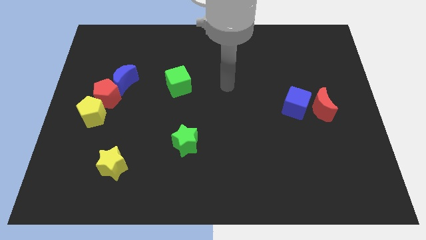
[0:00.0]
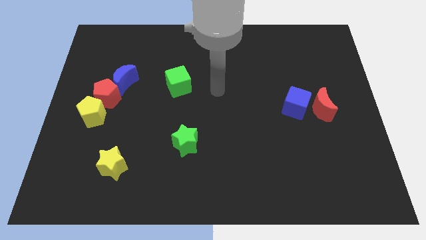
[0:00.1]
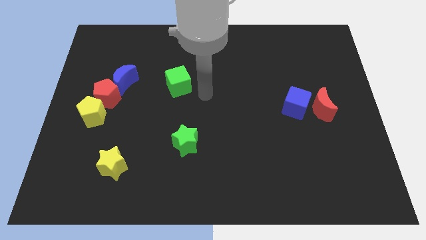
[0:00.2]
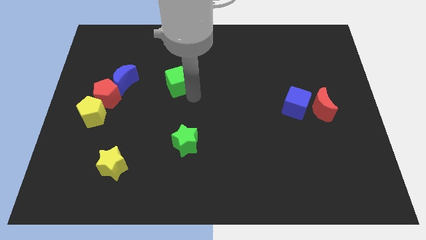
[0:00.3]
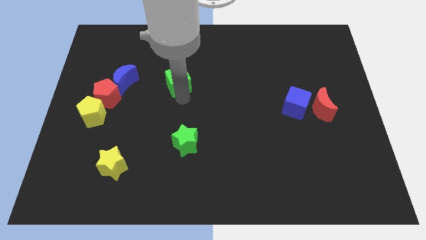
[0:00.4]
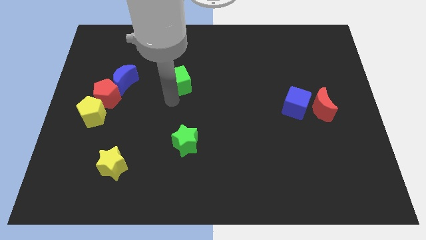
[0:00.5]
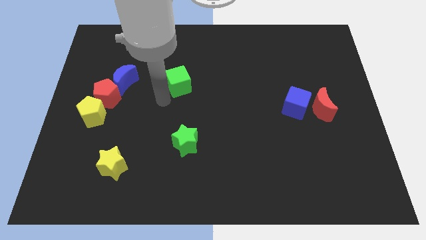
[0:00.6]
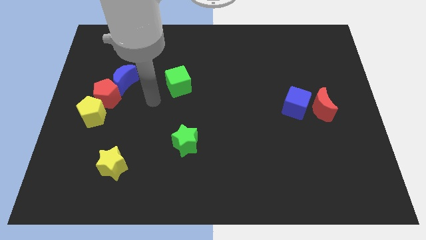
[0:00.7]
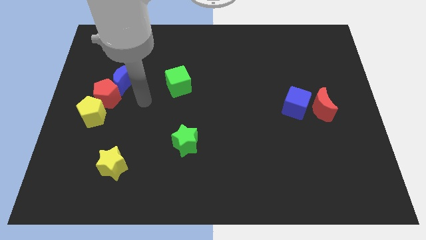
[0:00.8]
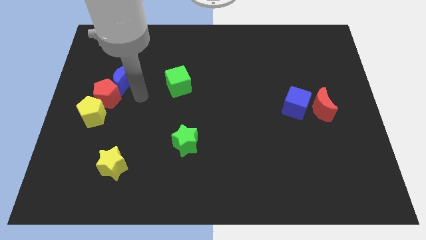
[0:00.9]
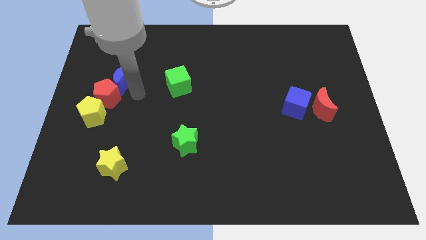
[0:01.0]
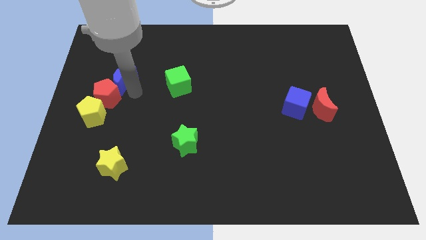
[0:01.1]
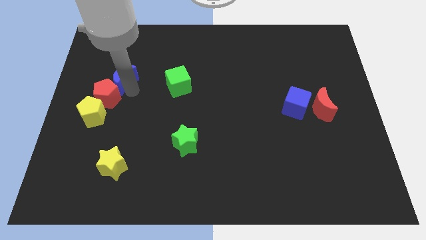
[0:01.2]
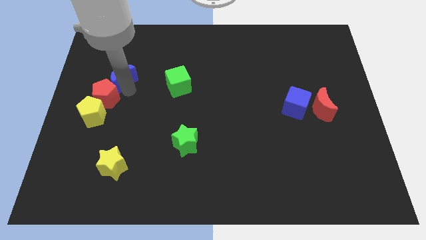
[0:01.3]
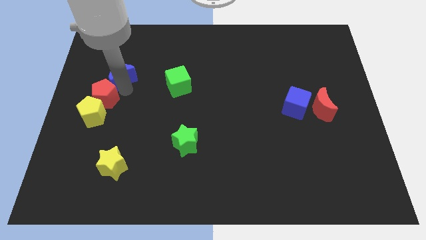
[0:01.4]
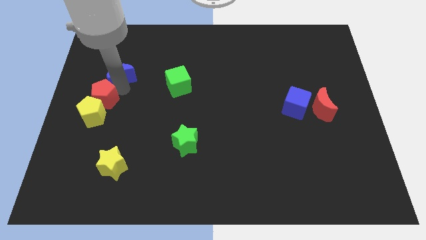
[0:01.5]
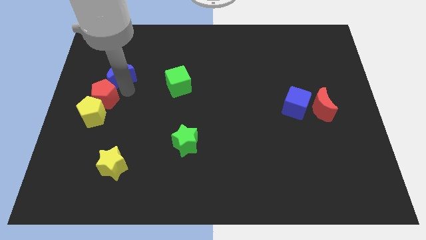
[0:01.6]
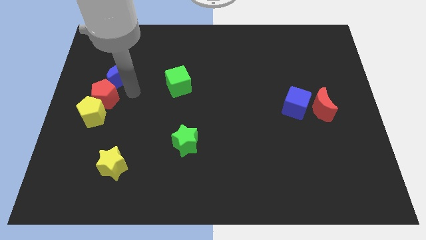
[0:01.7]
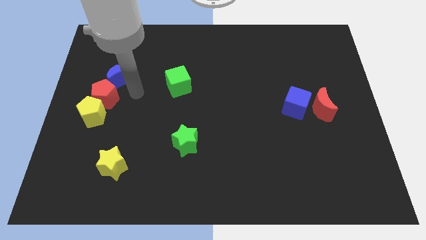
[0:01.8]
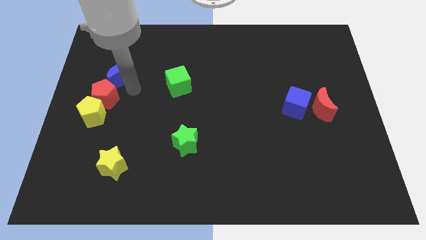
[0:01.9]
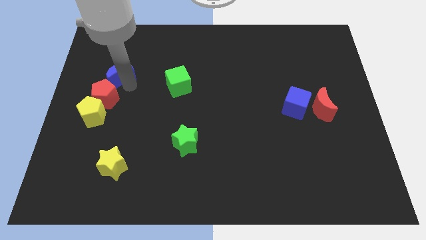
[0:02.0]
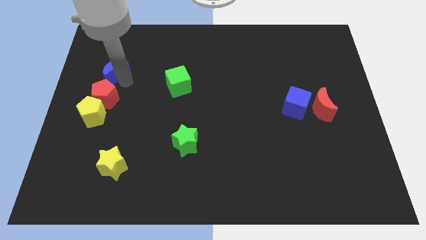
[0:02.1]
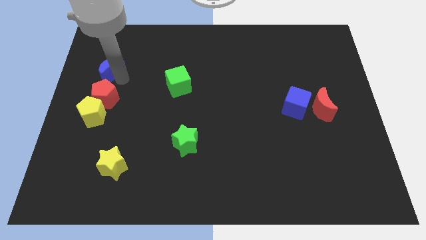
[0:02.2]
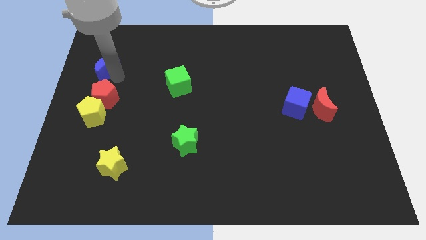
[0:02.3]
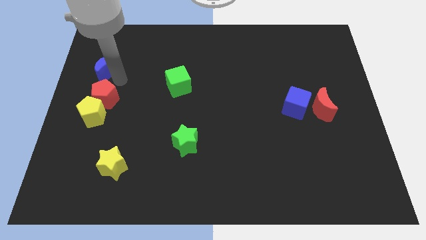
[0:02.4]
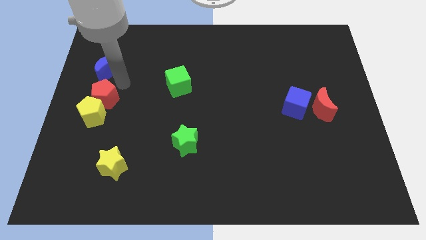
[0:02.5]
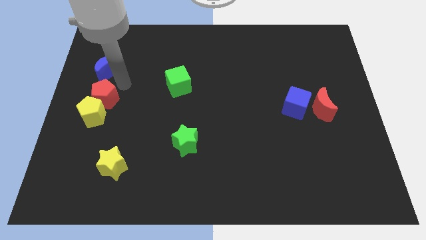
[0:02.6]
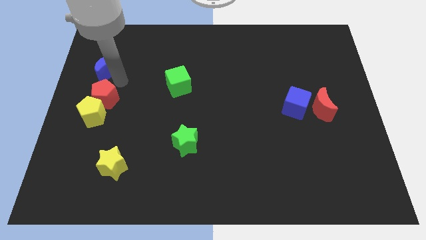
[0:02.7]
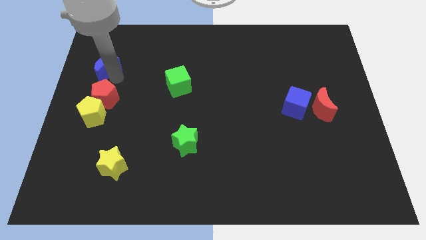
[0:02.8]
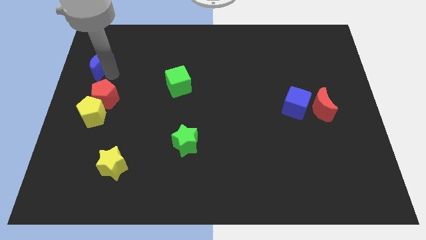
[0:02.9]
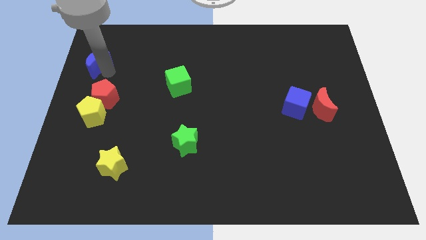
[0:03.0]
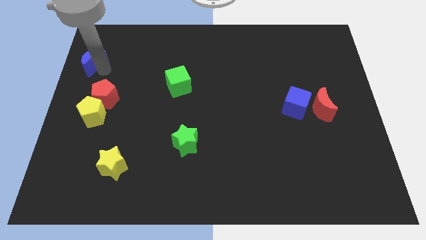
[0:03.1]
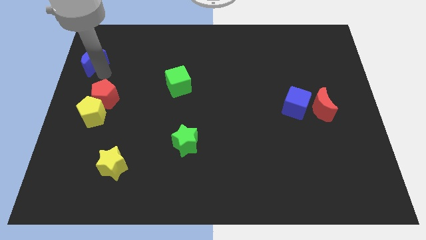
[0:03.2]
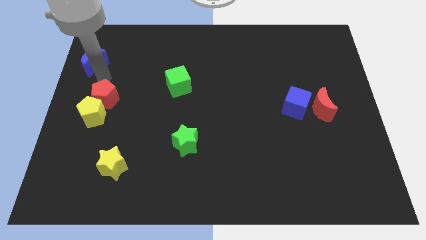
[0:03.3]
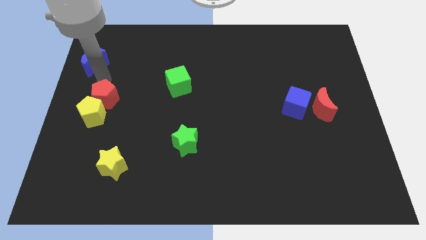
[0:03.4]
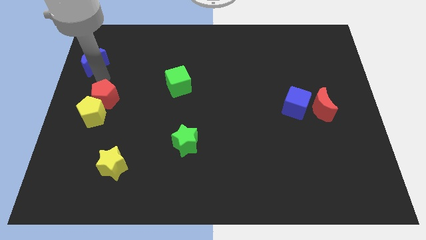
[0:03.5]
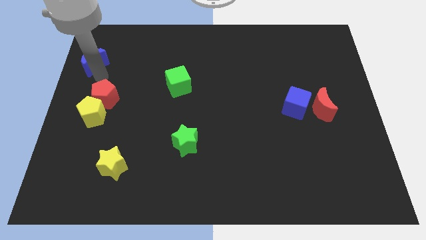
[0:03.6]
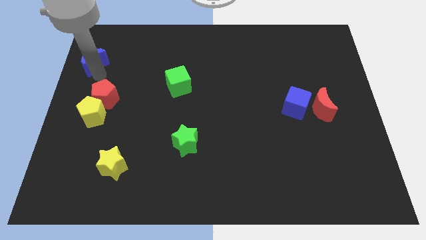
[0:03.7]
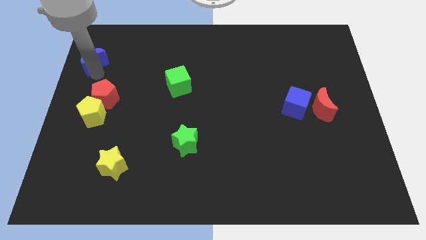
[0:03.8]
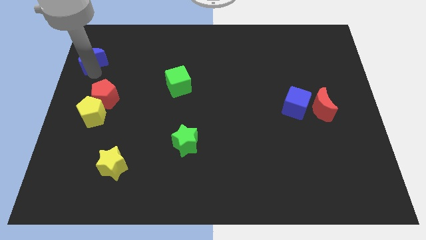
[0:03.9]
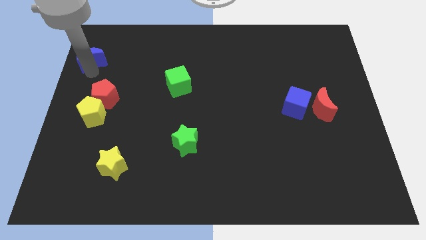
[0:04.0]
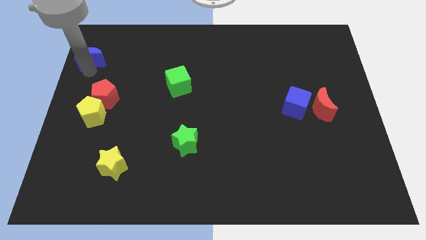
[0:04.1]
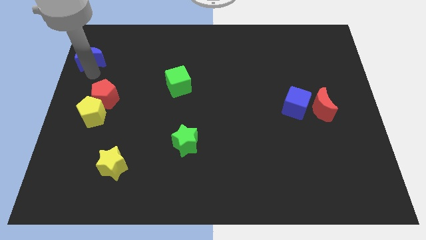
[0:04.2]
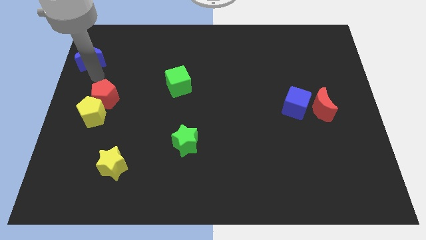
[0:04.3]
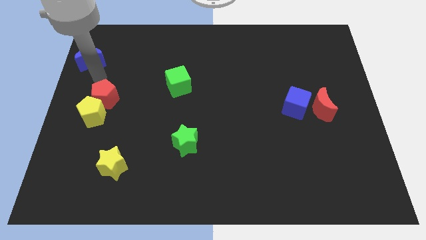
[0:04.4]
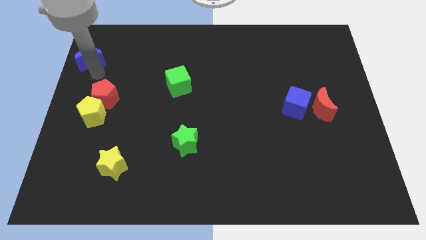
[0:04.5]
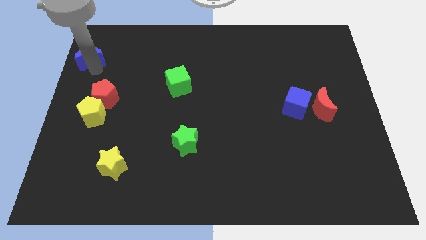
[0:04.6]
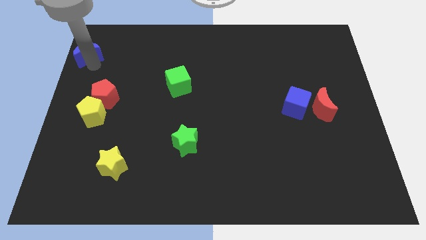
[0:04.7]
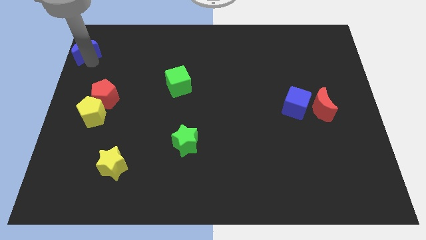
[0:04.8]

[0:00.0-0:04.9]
push the blue moon to the top left

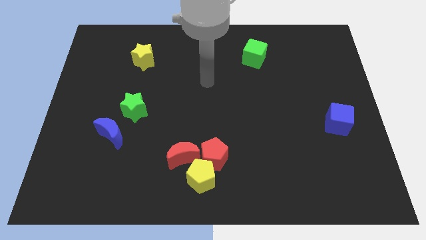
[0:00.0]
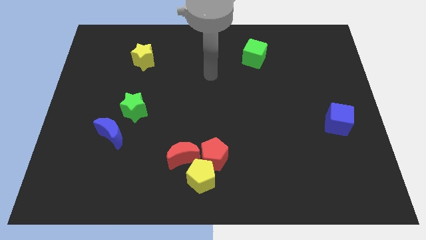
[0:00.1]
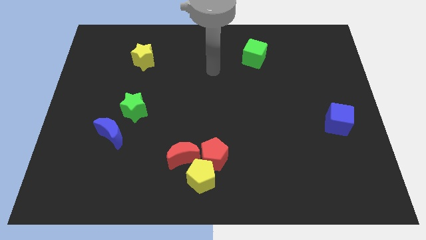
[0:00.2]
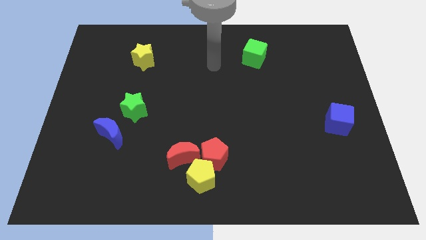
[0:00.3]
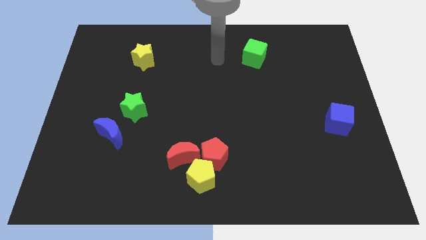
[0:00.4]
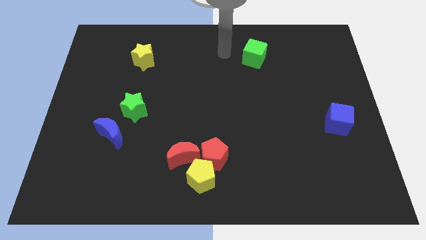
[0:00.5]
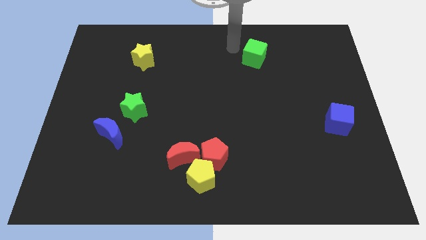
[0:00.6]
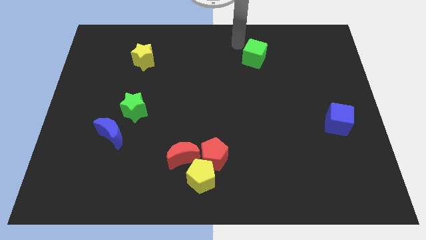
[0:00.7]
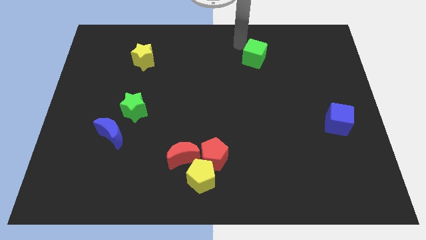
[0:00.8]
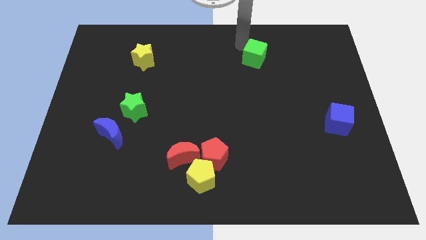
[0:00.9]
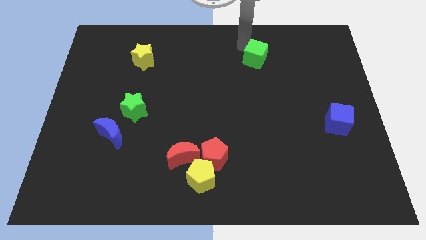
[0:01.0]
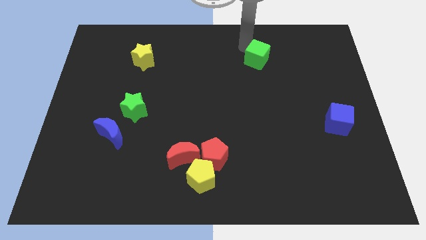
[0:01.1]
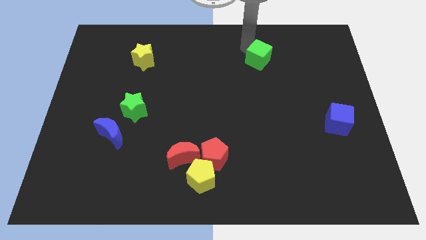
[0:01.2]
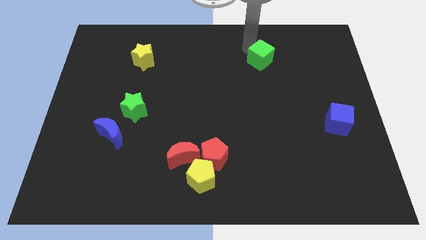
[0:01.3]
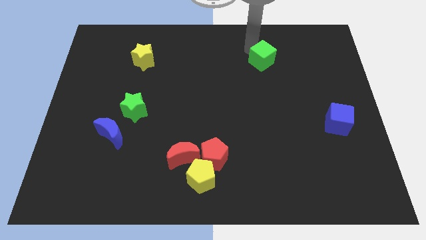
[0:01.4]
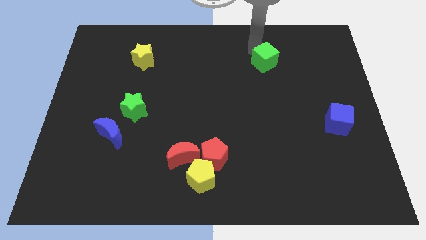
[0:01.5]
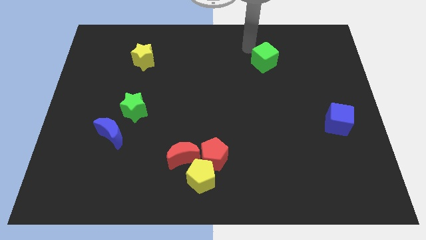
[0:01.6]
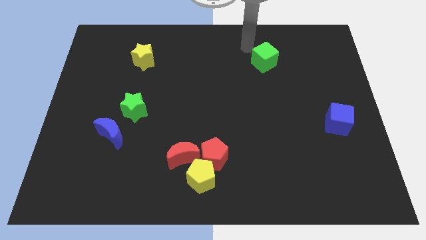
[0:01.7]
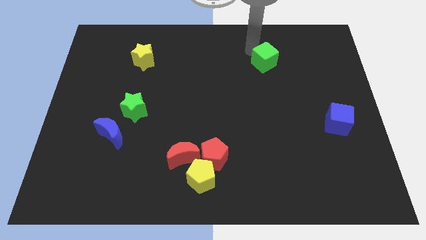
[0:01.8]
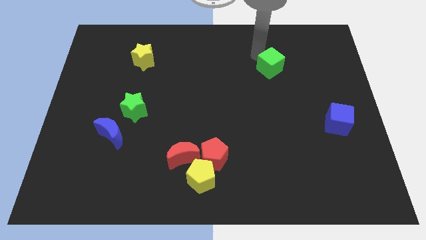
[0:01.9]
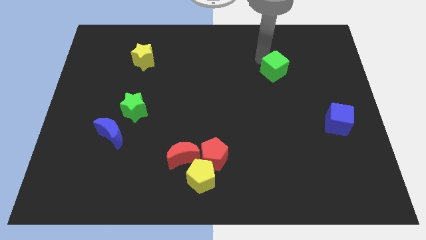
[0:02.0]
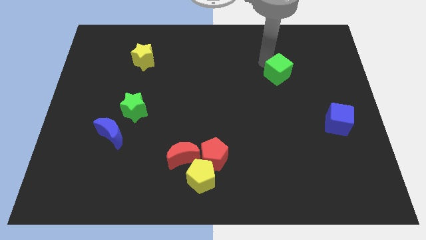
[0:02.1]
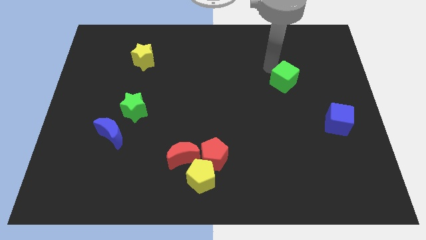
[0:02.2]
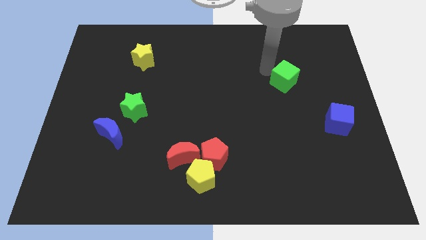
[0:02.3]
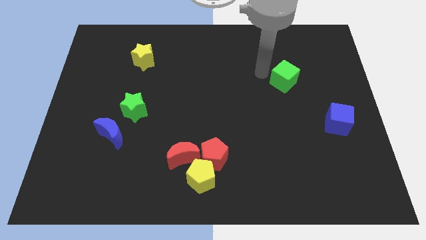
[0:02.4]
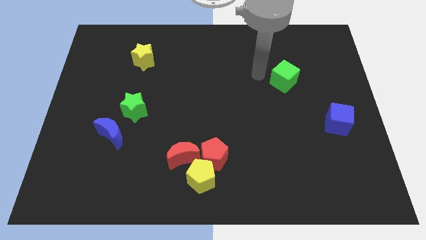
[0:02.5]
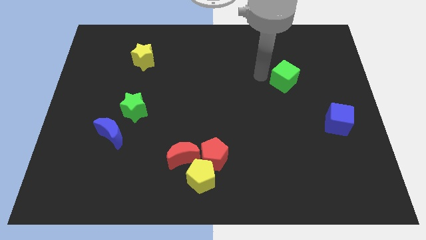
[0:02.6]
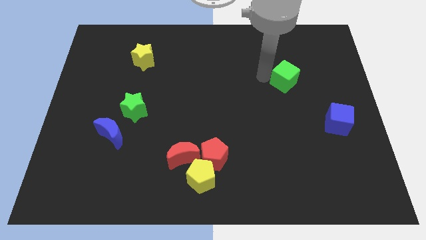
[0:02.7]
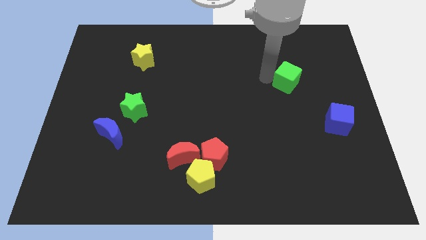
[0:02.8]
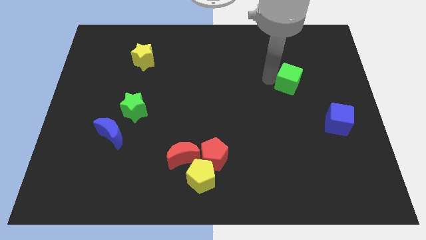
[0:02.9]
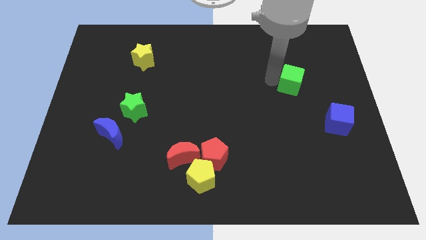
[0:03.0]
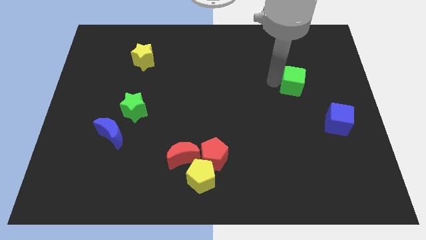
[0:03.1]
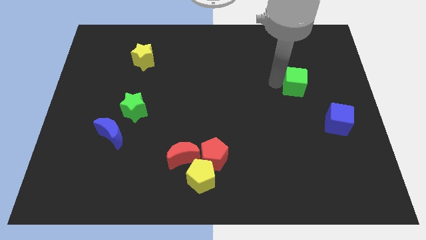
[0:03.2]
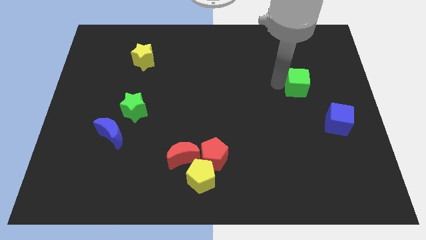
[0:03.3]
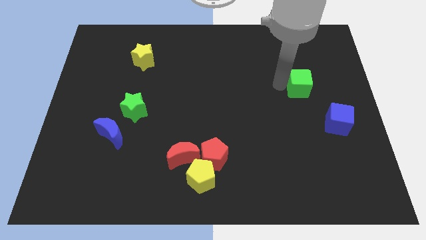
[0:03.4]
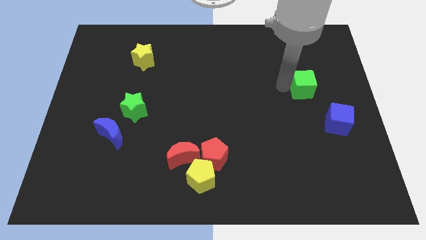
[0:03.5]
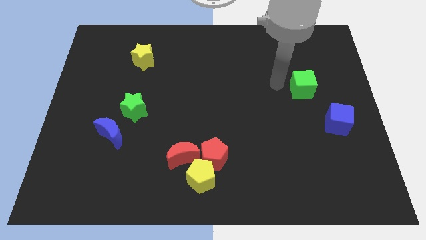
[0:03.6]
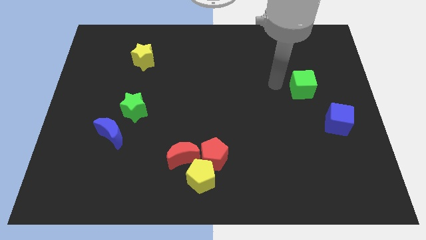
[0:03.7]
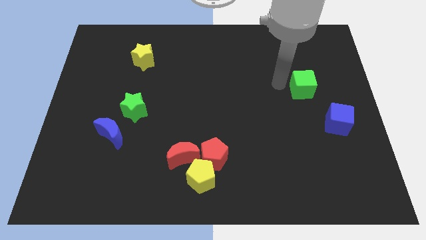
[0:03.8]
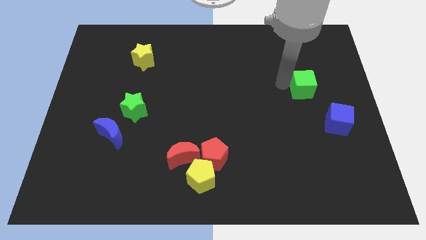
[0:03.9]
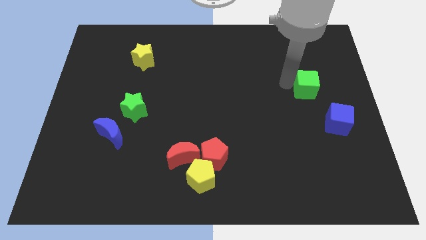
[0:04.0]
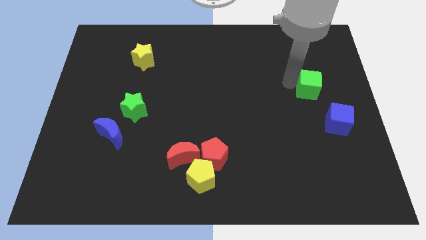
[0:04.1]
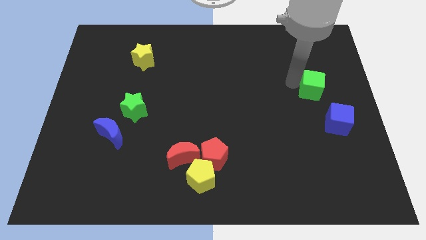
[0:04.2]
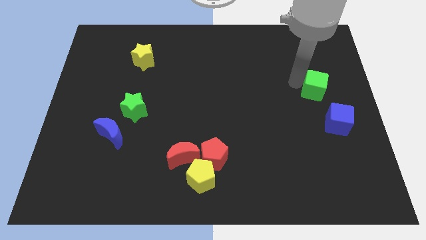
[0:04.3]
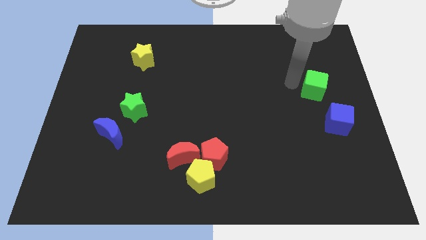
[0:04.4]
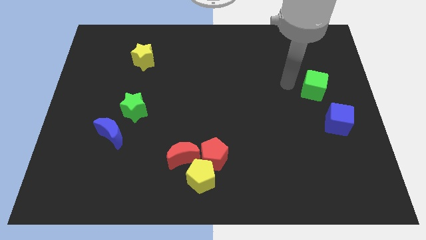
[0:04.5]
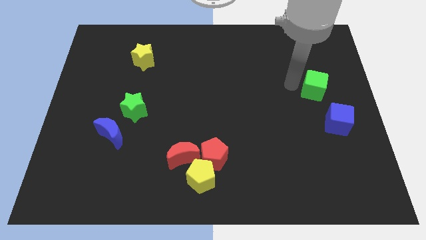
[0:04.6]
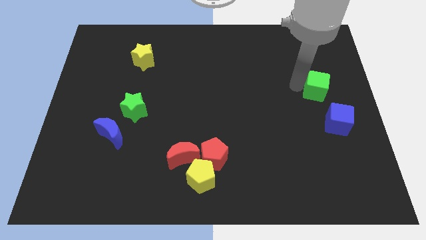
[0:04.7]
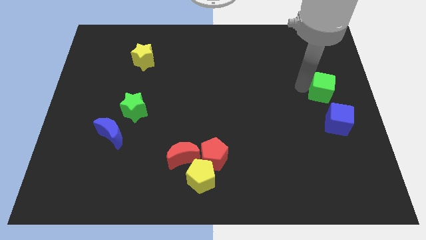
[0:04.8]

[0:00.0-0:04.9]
slide the green cube to the right side
